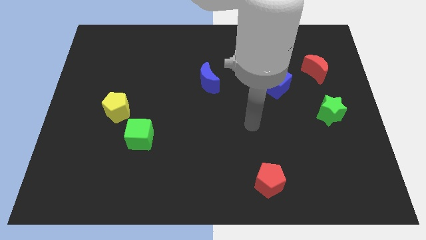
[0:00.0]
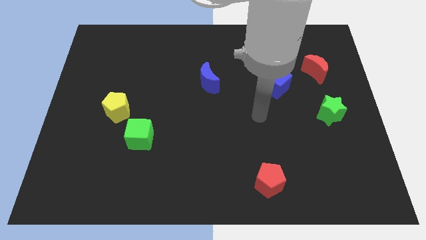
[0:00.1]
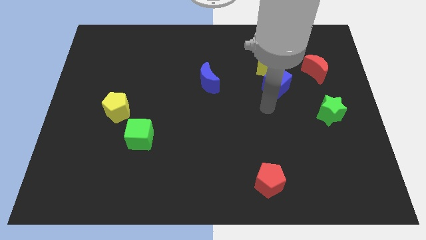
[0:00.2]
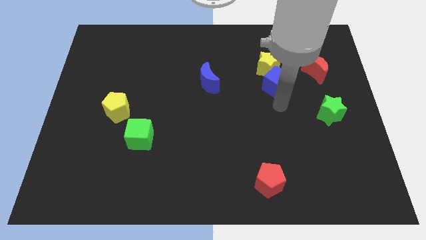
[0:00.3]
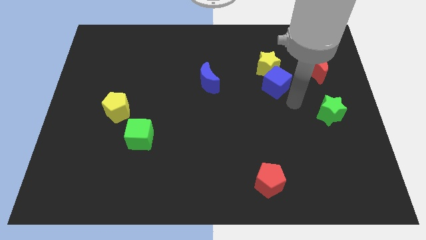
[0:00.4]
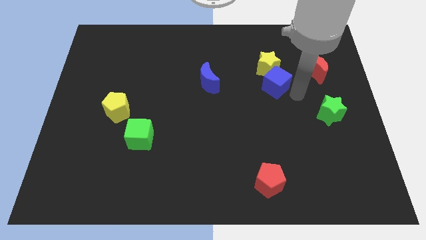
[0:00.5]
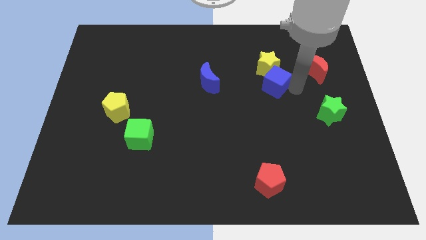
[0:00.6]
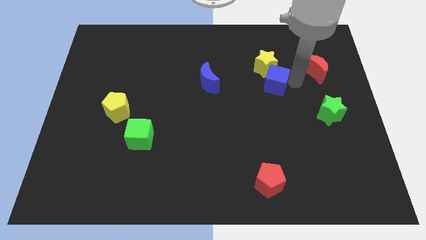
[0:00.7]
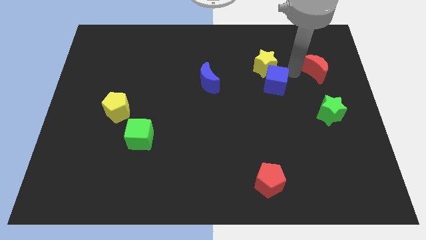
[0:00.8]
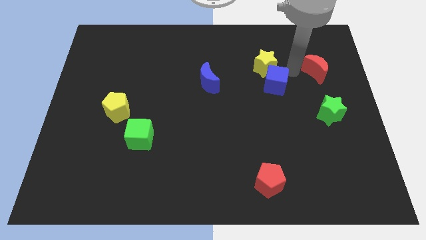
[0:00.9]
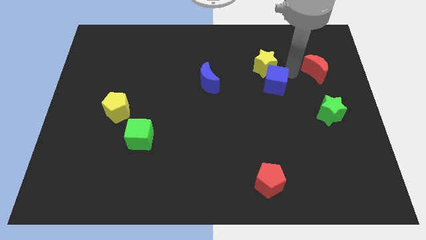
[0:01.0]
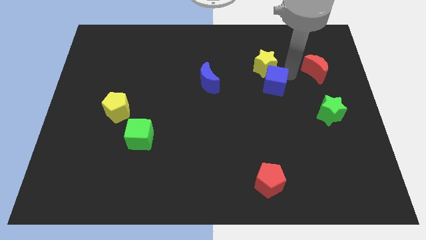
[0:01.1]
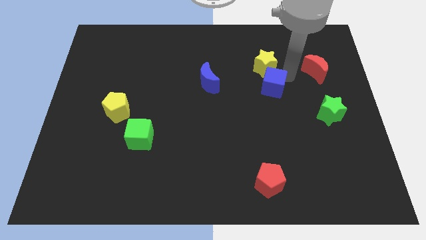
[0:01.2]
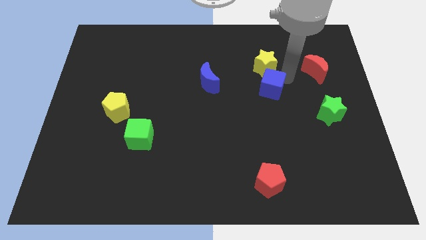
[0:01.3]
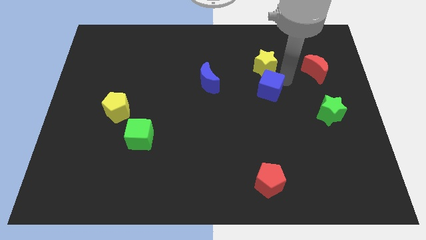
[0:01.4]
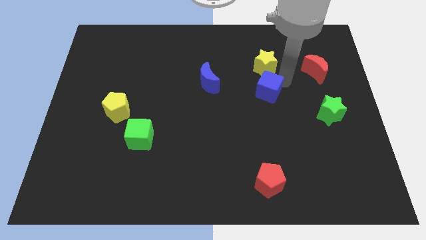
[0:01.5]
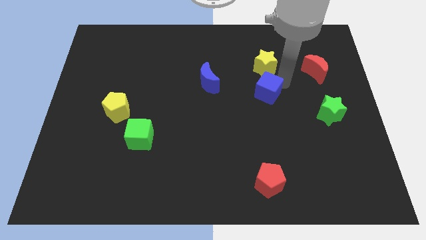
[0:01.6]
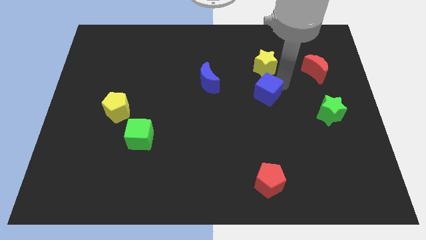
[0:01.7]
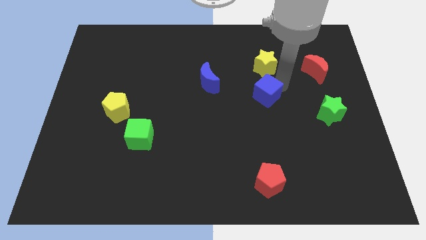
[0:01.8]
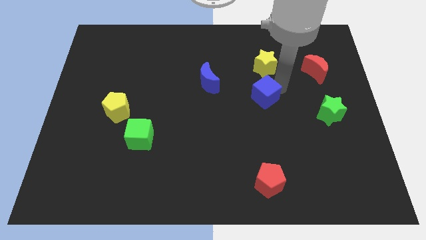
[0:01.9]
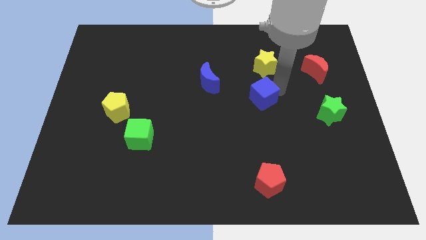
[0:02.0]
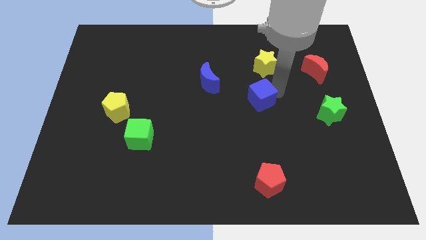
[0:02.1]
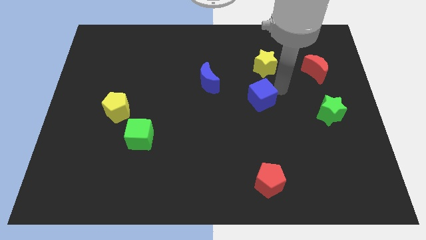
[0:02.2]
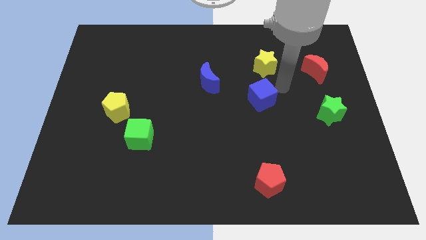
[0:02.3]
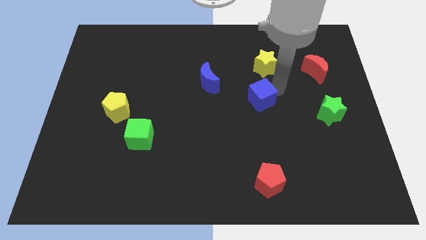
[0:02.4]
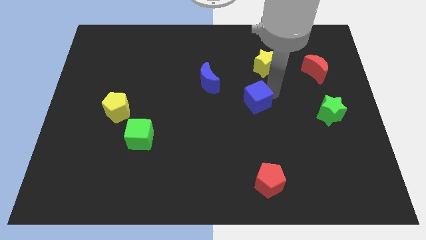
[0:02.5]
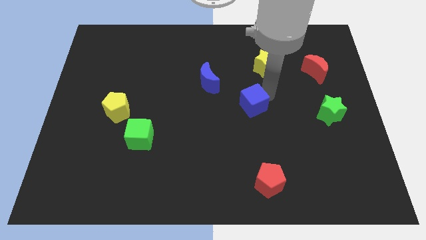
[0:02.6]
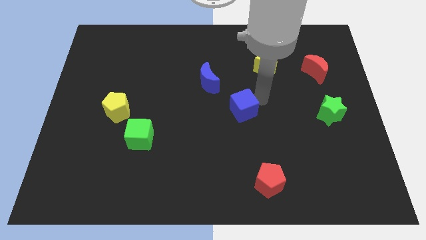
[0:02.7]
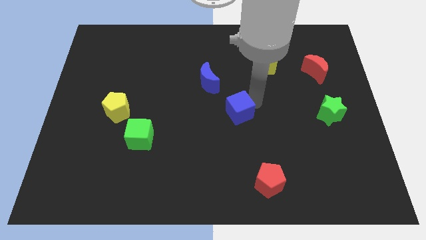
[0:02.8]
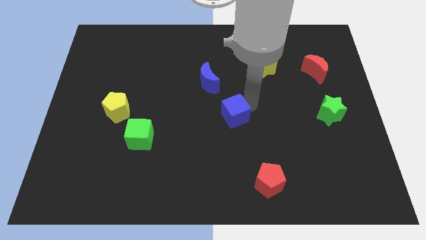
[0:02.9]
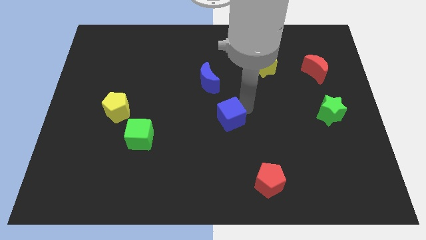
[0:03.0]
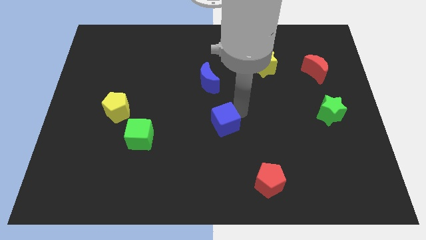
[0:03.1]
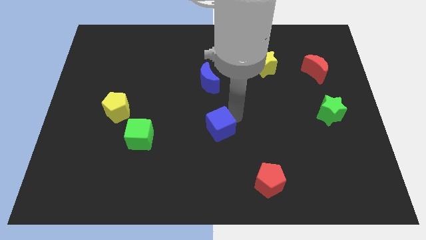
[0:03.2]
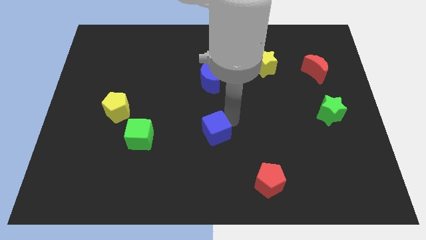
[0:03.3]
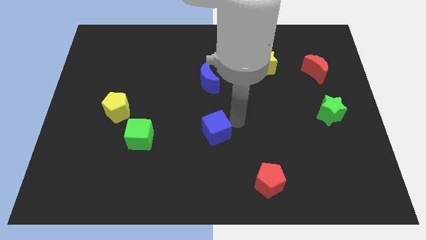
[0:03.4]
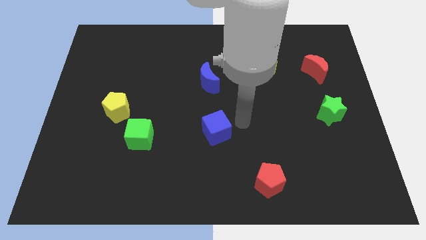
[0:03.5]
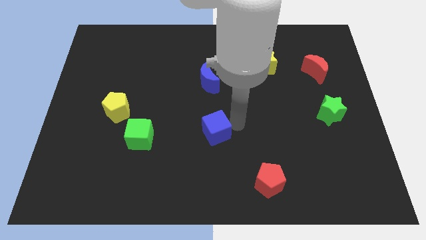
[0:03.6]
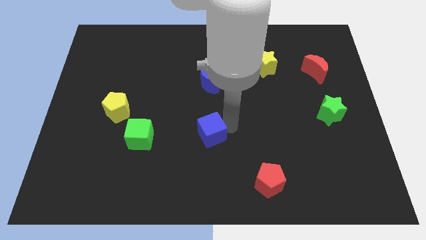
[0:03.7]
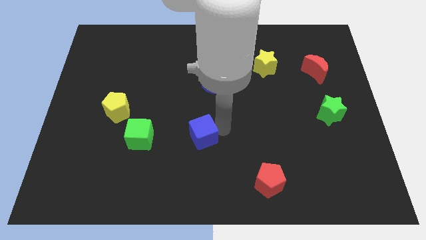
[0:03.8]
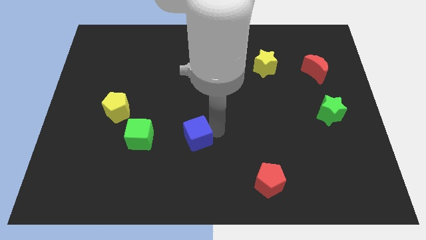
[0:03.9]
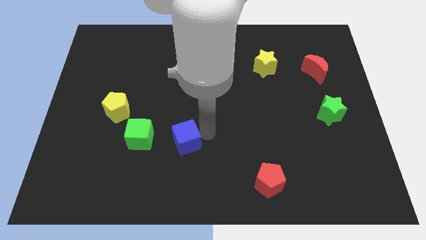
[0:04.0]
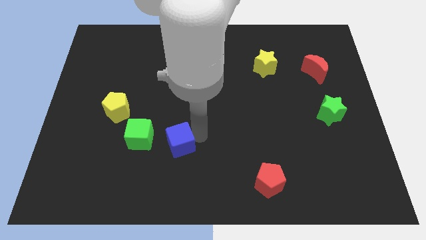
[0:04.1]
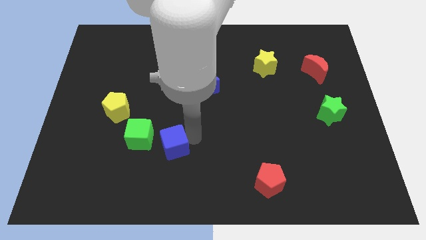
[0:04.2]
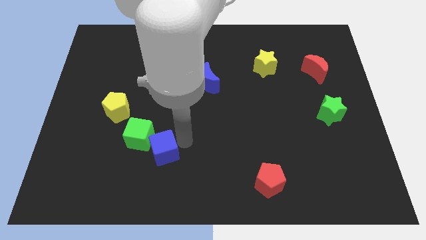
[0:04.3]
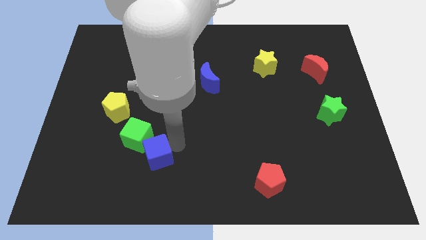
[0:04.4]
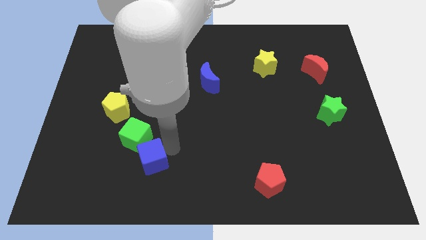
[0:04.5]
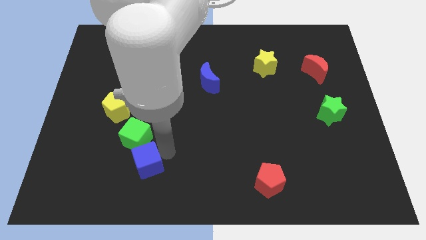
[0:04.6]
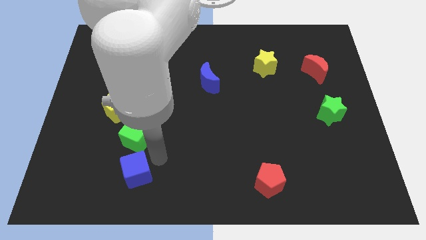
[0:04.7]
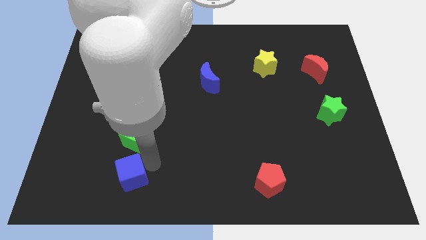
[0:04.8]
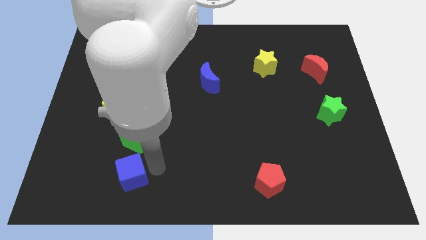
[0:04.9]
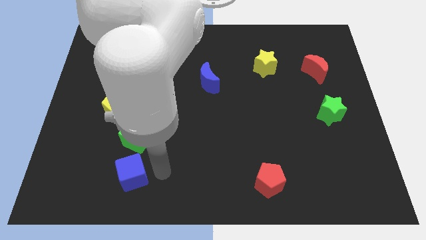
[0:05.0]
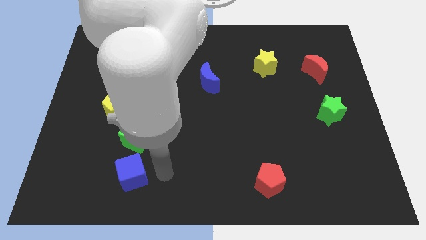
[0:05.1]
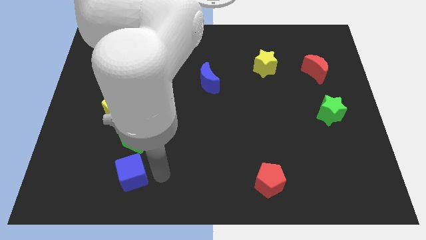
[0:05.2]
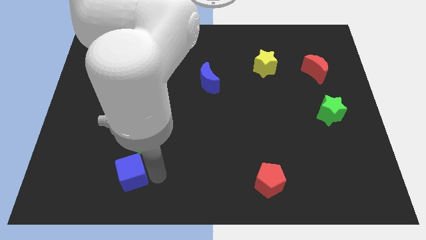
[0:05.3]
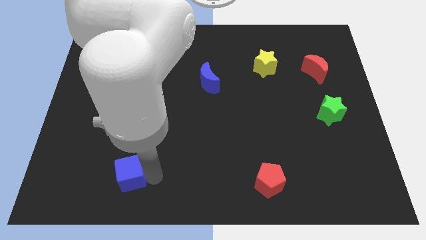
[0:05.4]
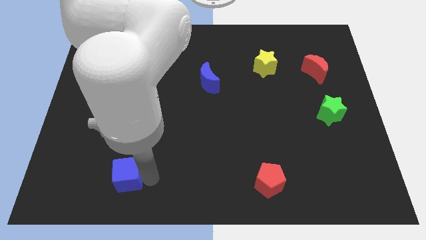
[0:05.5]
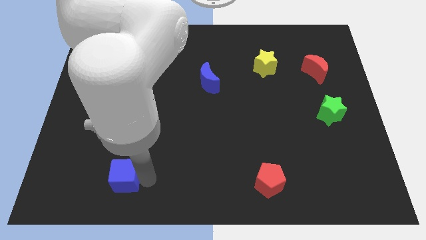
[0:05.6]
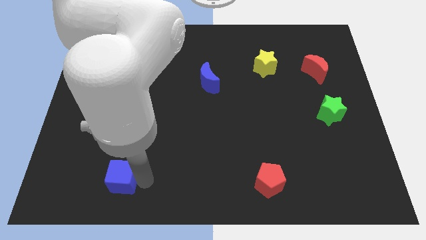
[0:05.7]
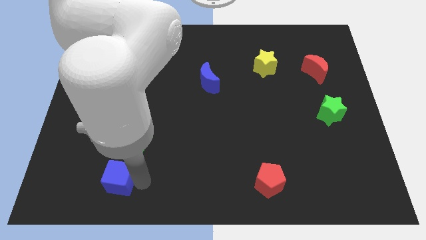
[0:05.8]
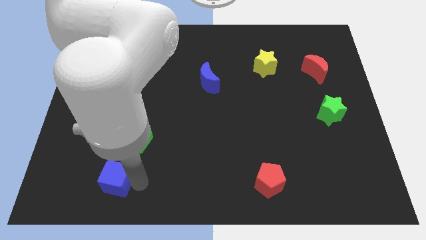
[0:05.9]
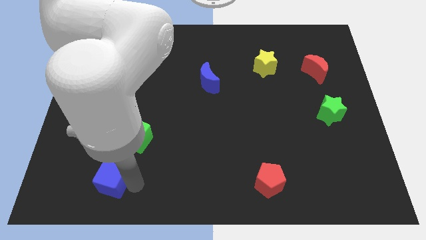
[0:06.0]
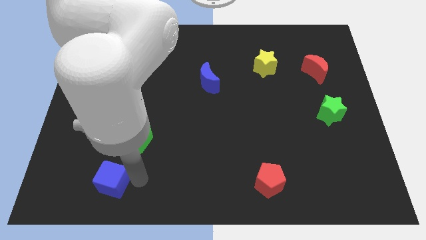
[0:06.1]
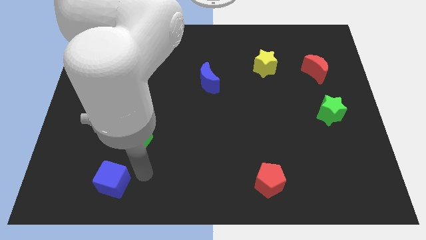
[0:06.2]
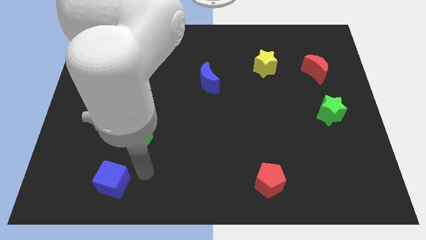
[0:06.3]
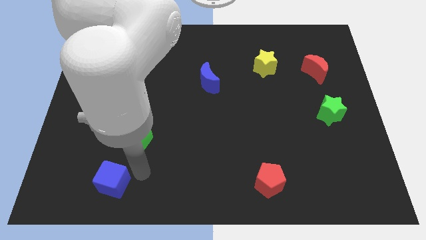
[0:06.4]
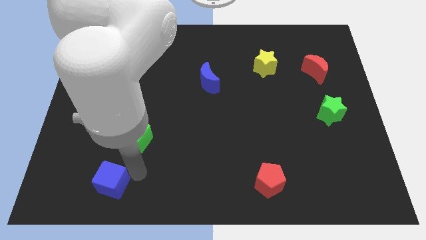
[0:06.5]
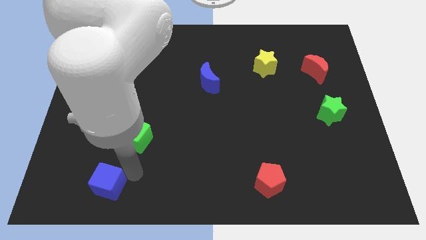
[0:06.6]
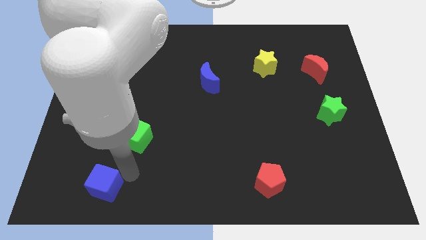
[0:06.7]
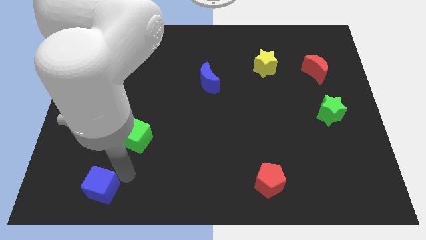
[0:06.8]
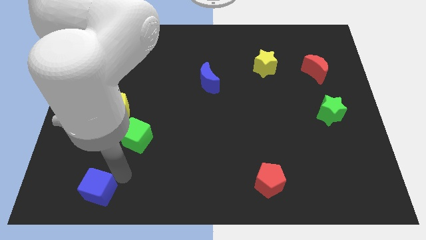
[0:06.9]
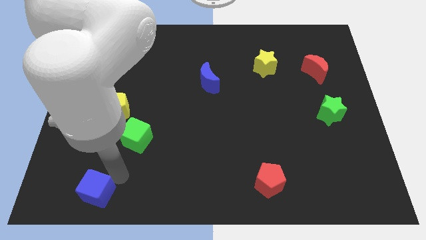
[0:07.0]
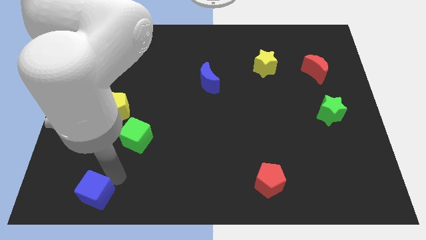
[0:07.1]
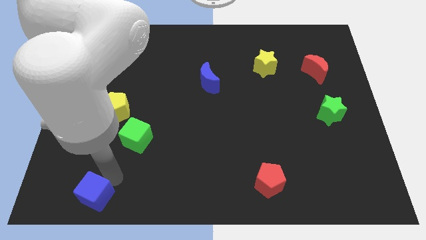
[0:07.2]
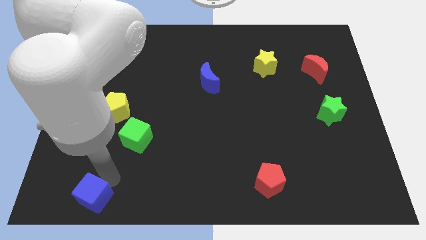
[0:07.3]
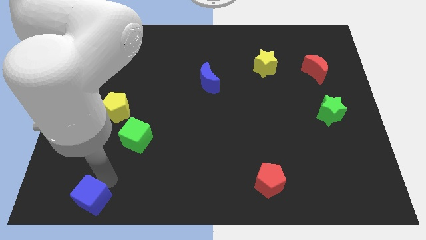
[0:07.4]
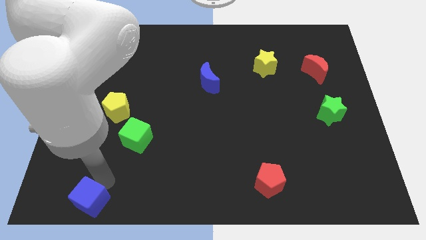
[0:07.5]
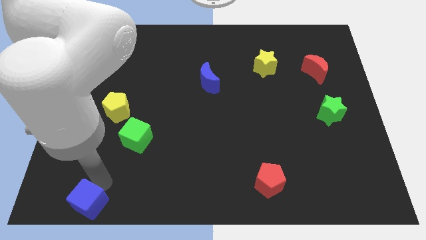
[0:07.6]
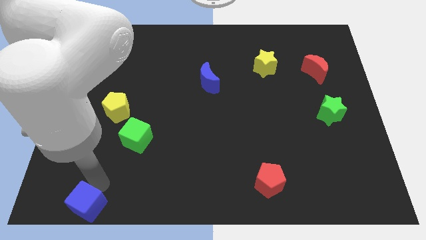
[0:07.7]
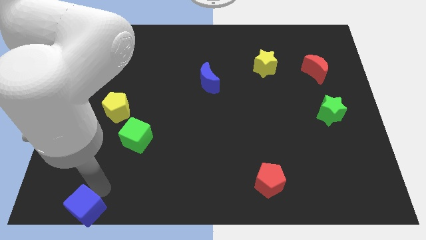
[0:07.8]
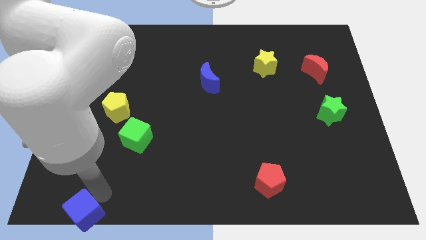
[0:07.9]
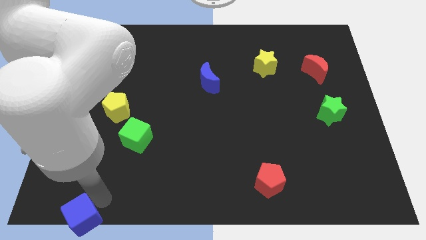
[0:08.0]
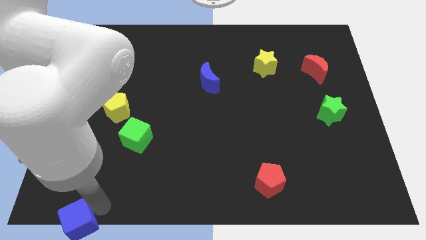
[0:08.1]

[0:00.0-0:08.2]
push the blue cube to the lower left corner
